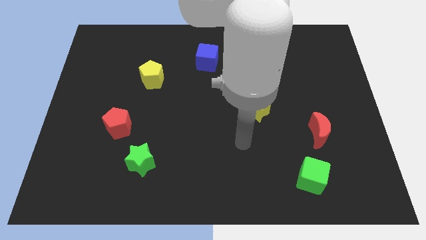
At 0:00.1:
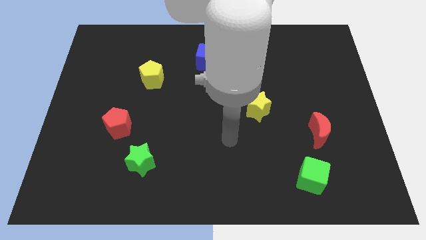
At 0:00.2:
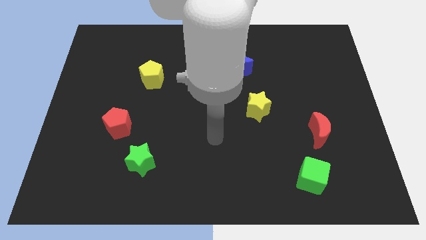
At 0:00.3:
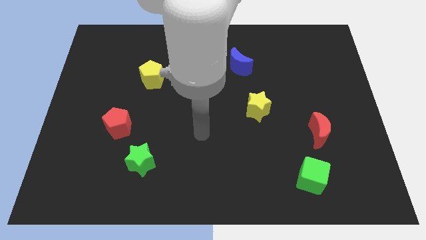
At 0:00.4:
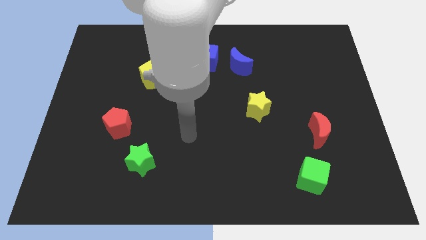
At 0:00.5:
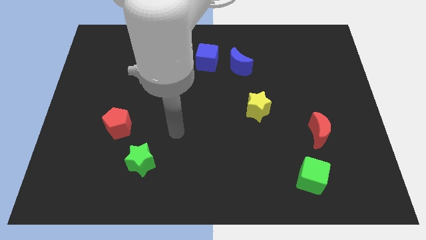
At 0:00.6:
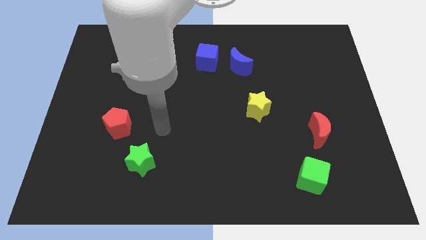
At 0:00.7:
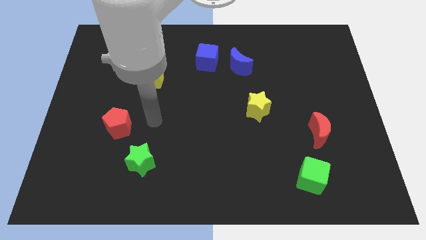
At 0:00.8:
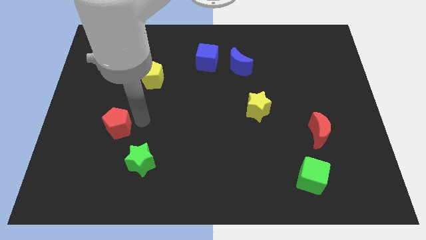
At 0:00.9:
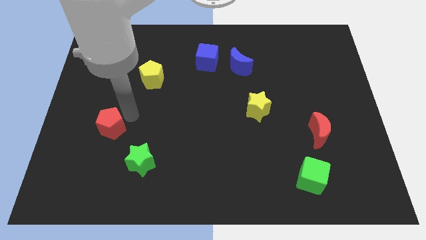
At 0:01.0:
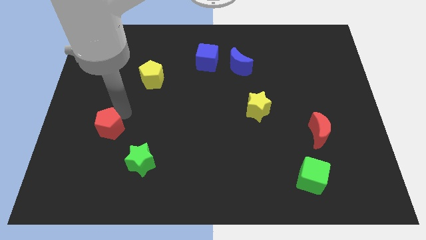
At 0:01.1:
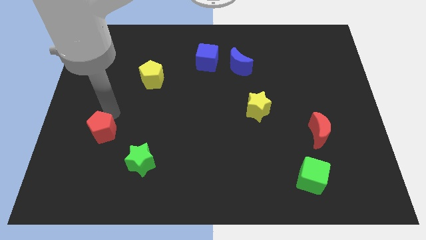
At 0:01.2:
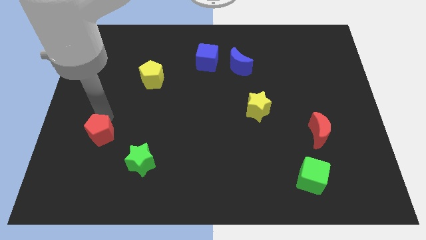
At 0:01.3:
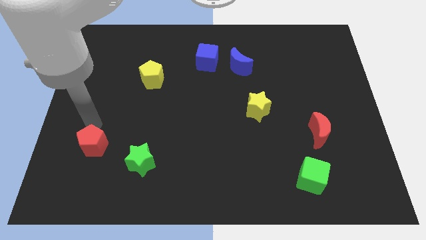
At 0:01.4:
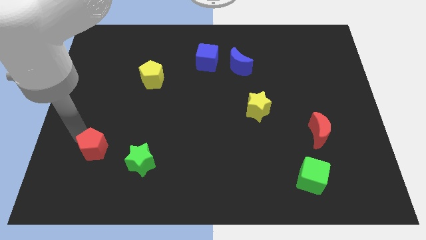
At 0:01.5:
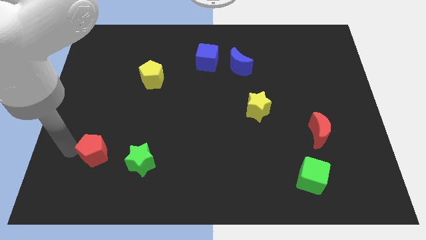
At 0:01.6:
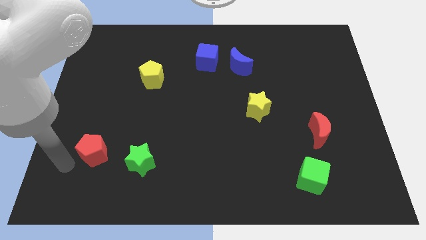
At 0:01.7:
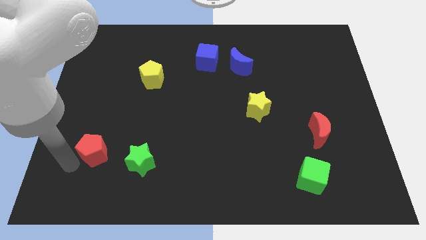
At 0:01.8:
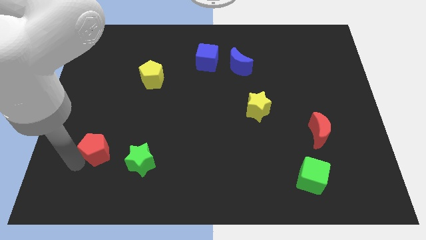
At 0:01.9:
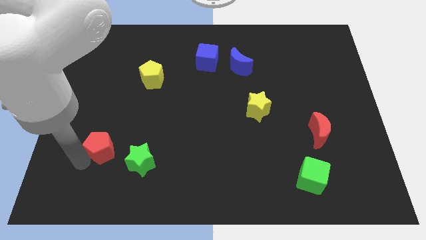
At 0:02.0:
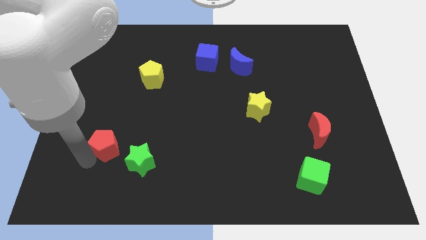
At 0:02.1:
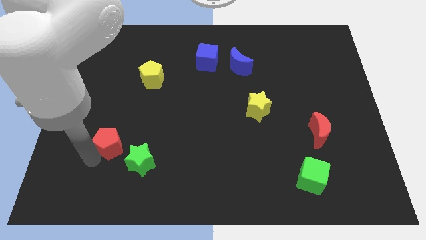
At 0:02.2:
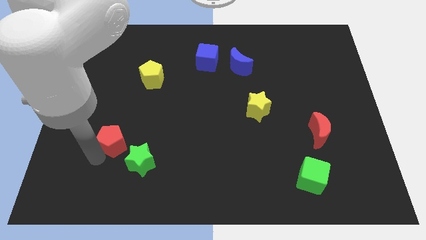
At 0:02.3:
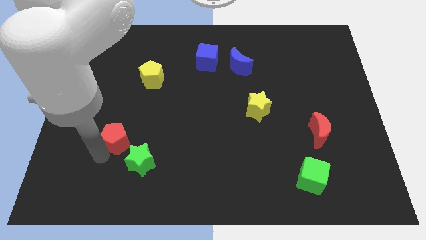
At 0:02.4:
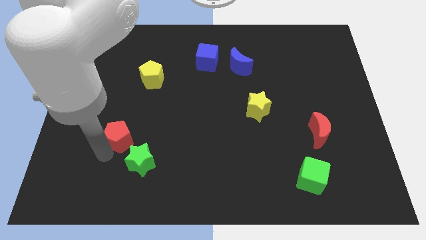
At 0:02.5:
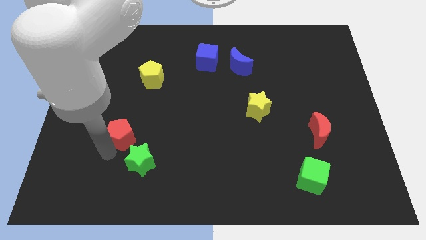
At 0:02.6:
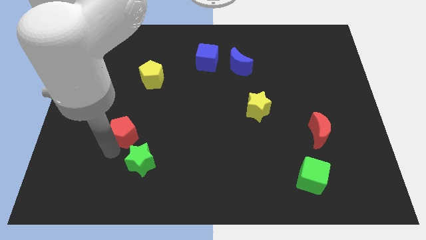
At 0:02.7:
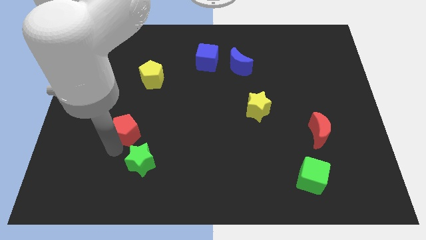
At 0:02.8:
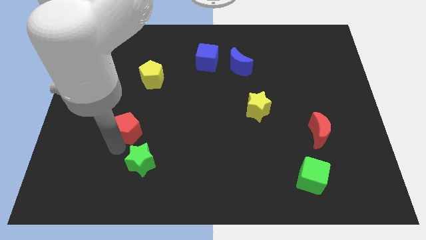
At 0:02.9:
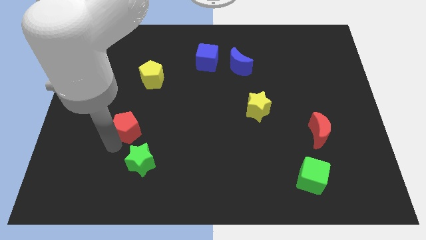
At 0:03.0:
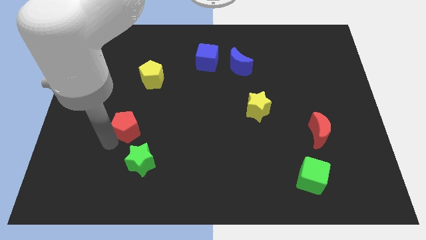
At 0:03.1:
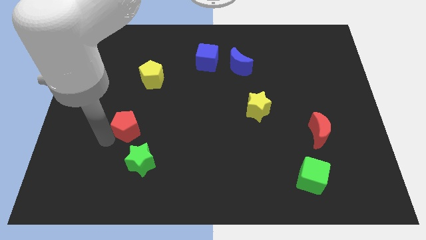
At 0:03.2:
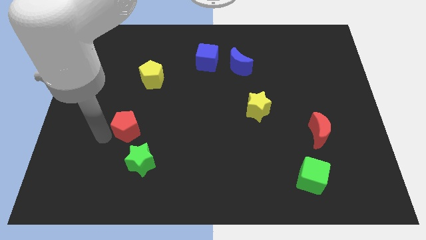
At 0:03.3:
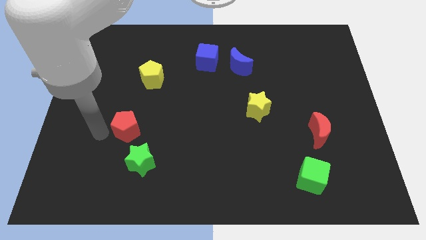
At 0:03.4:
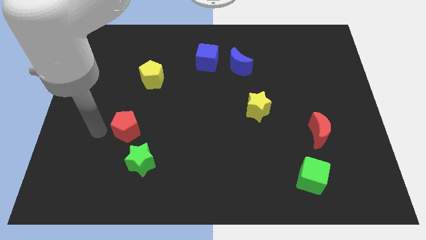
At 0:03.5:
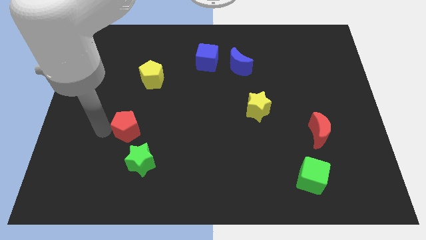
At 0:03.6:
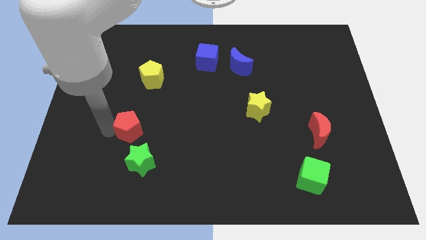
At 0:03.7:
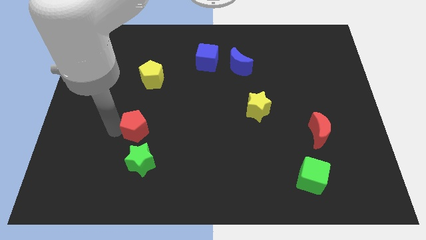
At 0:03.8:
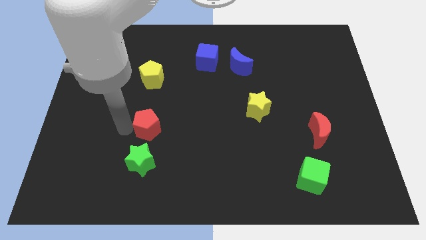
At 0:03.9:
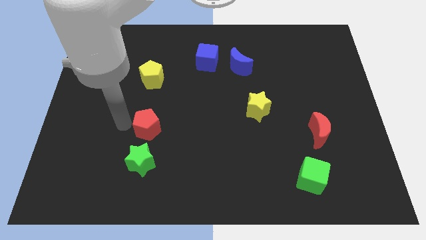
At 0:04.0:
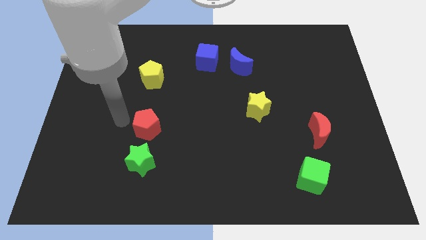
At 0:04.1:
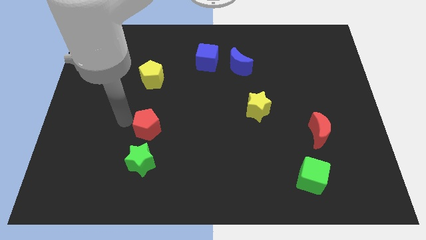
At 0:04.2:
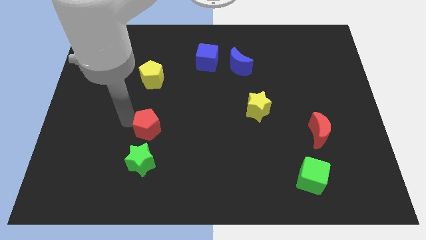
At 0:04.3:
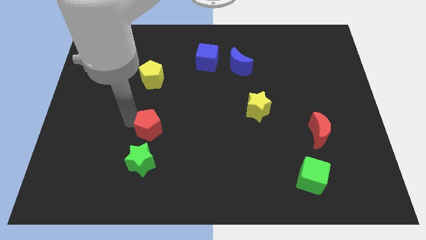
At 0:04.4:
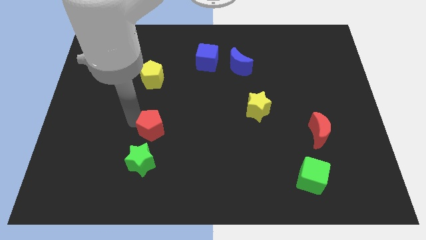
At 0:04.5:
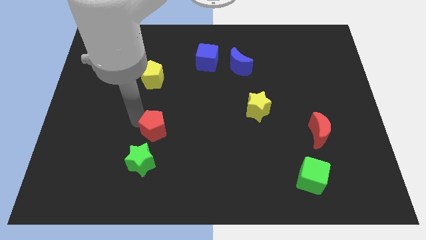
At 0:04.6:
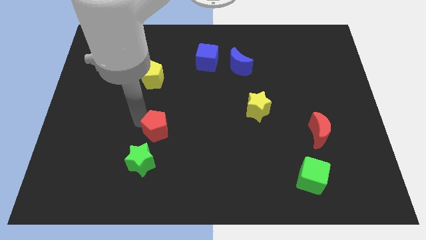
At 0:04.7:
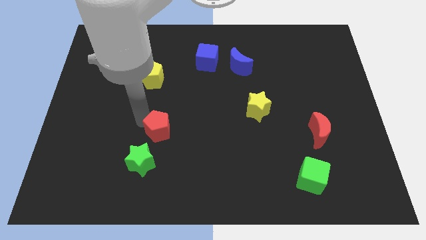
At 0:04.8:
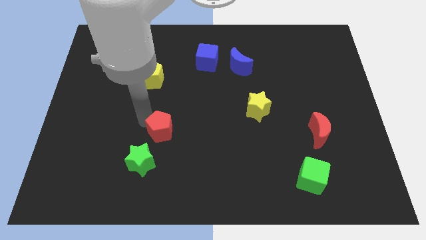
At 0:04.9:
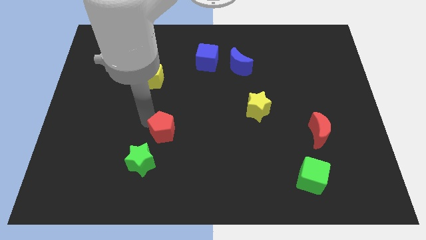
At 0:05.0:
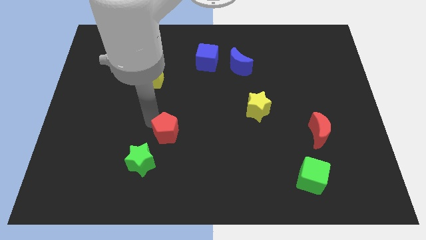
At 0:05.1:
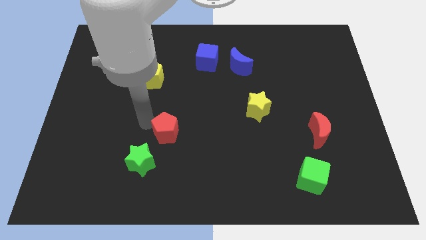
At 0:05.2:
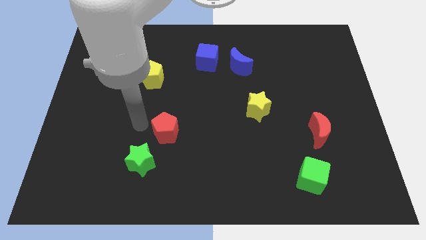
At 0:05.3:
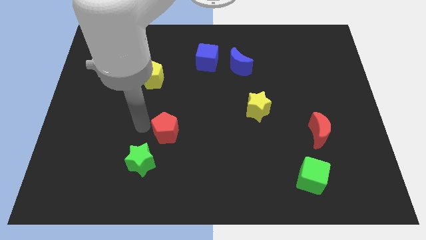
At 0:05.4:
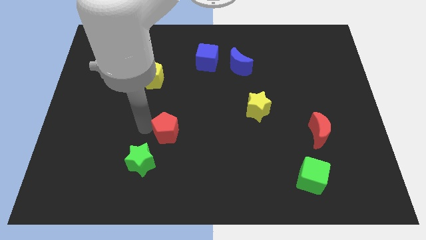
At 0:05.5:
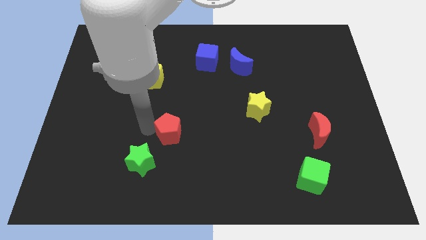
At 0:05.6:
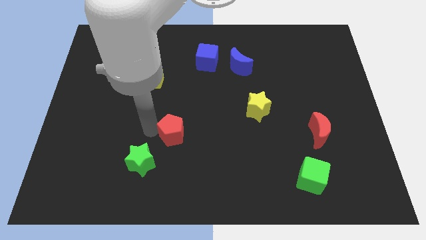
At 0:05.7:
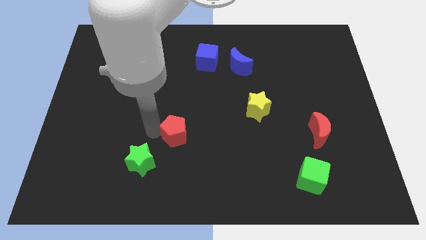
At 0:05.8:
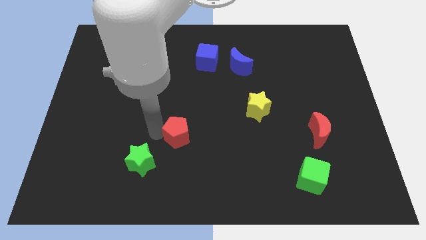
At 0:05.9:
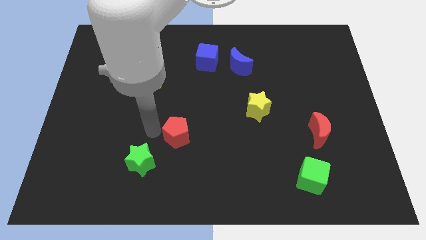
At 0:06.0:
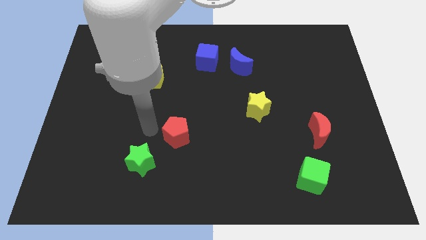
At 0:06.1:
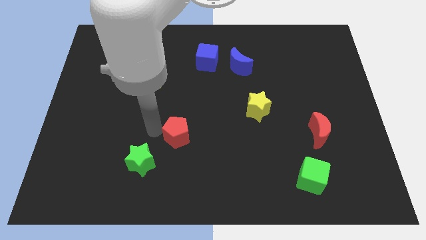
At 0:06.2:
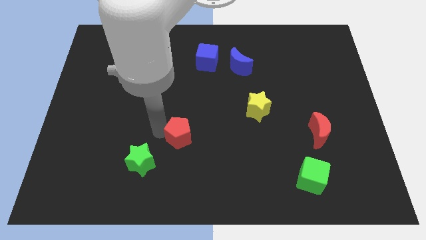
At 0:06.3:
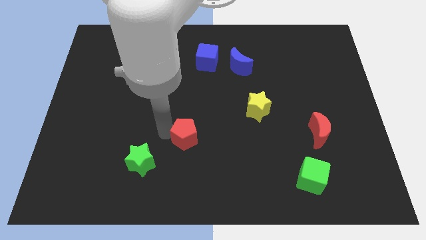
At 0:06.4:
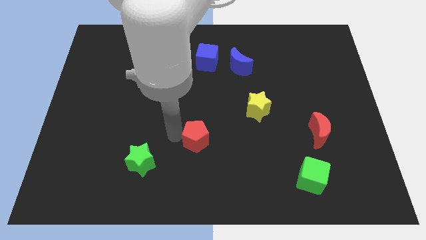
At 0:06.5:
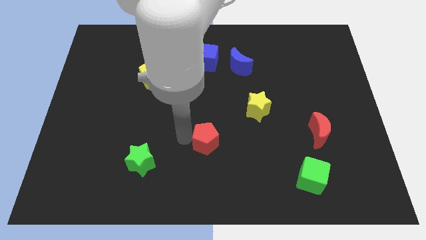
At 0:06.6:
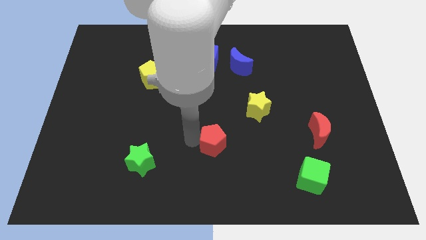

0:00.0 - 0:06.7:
push the red pentagon to the right

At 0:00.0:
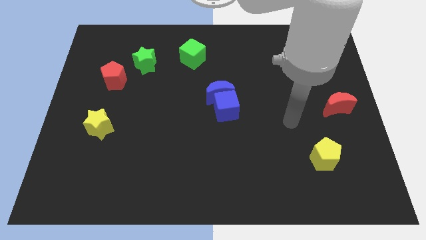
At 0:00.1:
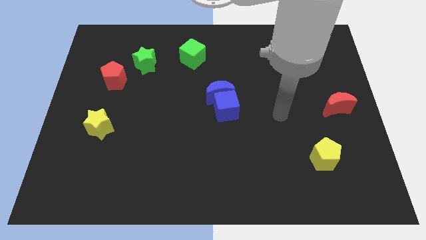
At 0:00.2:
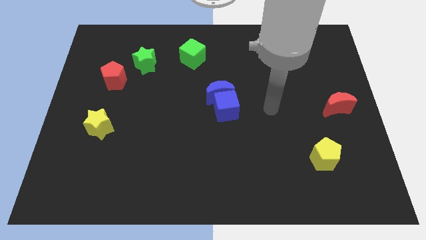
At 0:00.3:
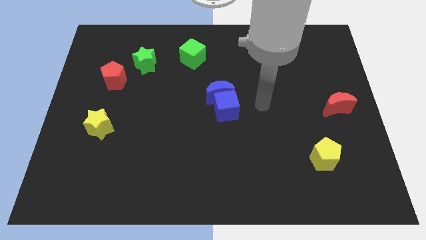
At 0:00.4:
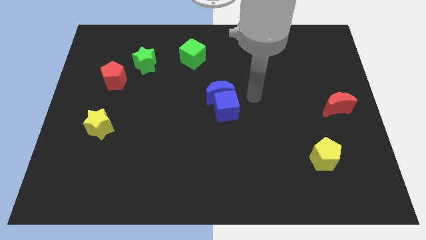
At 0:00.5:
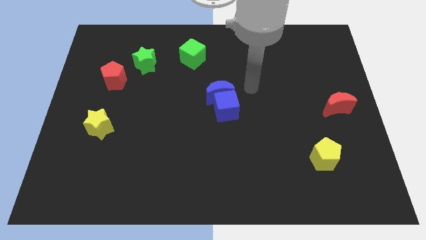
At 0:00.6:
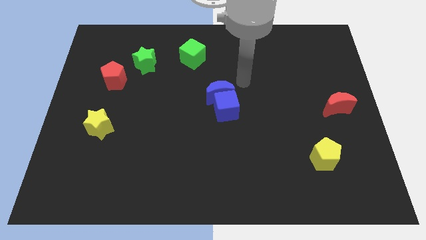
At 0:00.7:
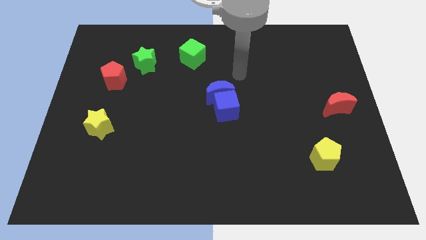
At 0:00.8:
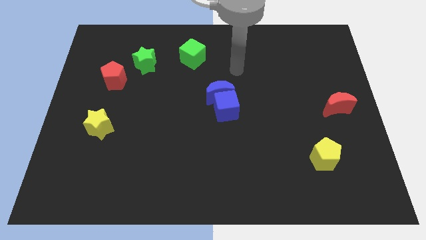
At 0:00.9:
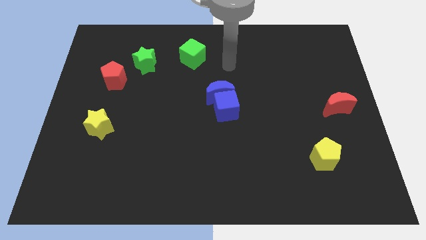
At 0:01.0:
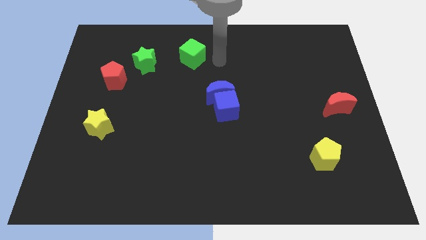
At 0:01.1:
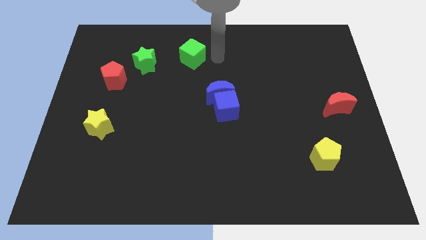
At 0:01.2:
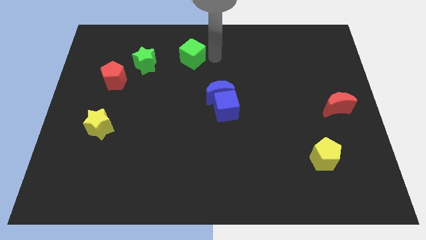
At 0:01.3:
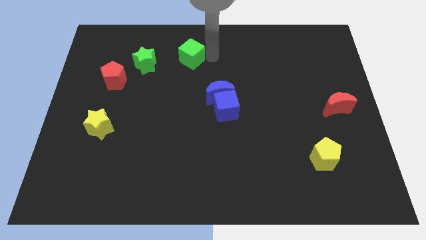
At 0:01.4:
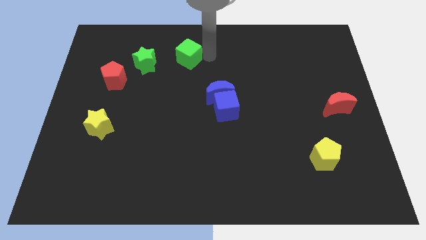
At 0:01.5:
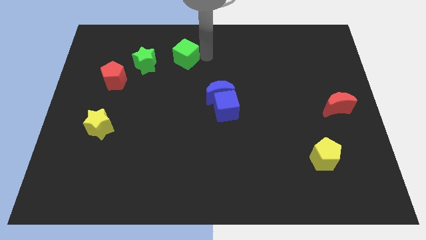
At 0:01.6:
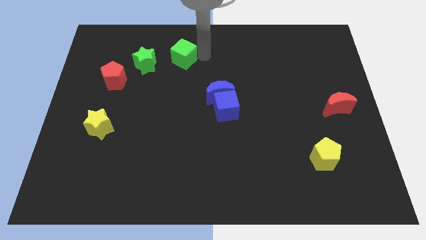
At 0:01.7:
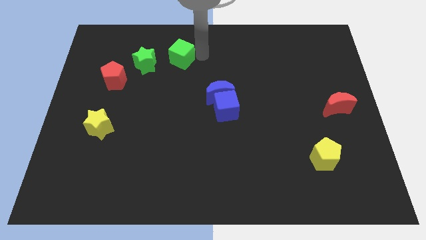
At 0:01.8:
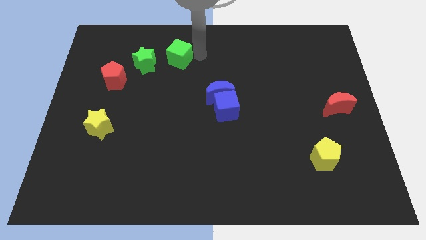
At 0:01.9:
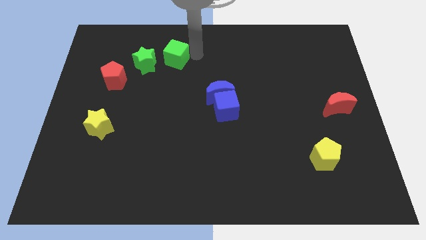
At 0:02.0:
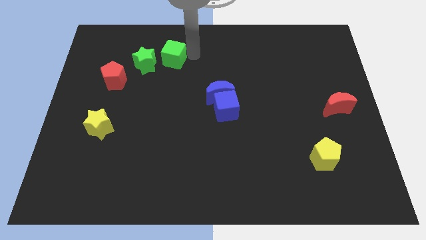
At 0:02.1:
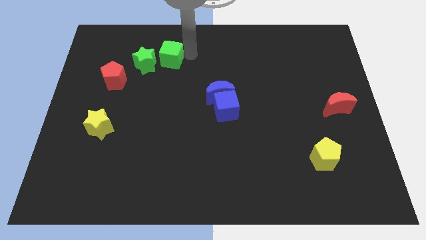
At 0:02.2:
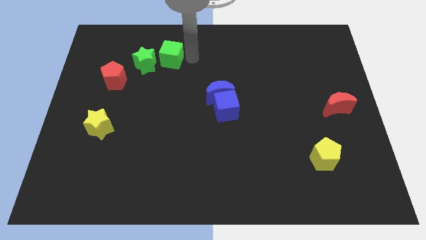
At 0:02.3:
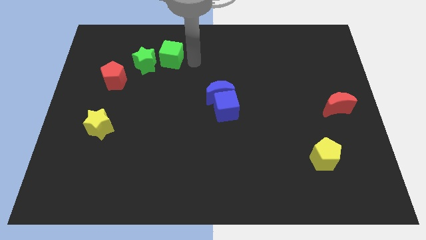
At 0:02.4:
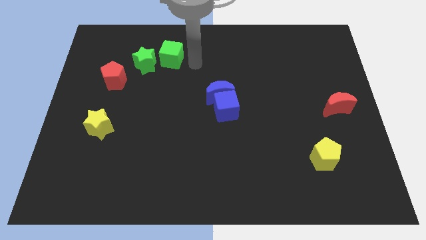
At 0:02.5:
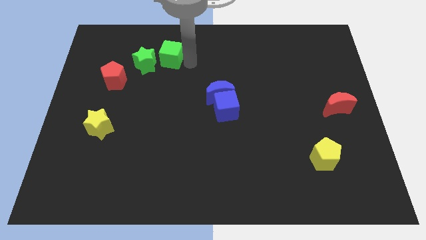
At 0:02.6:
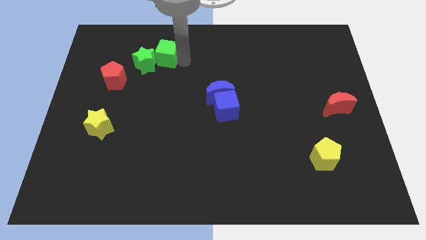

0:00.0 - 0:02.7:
slide the green cube a bit to the left
